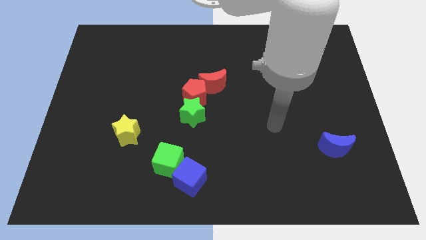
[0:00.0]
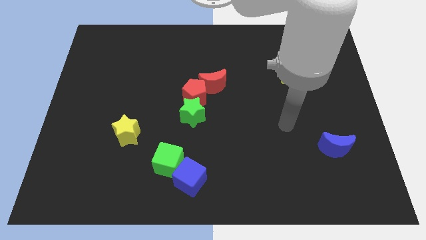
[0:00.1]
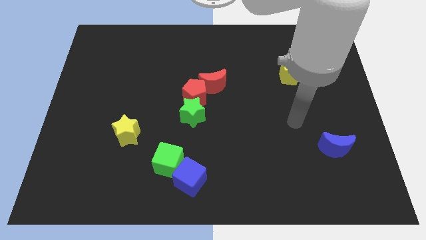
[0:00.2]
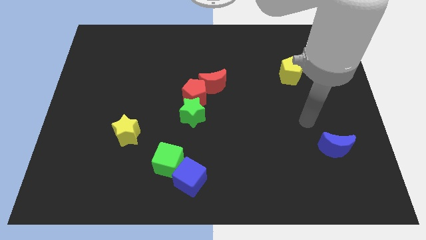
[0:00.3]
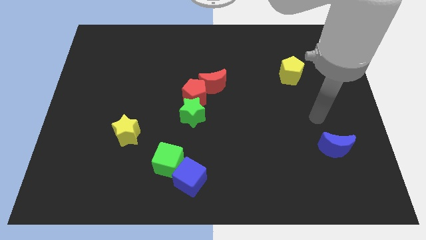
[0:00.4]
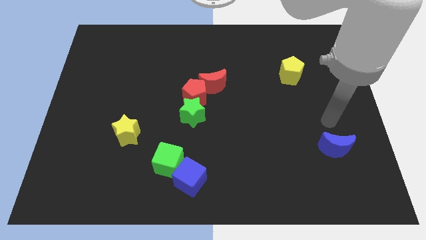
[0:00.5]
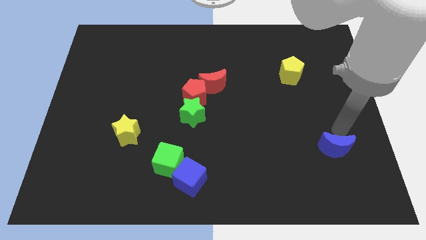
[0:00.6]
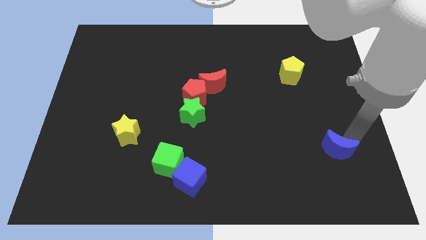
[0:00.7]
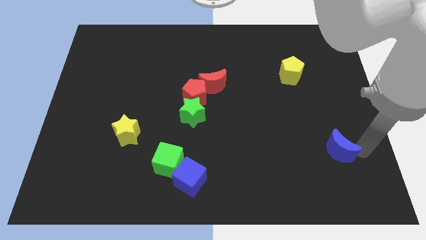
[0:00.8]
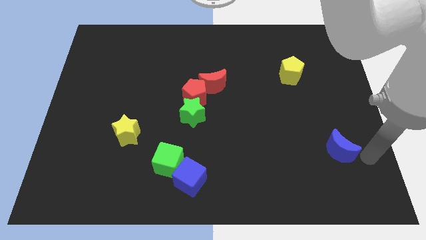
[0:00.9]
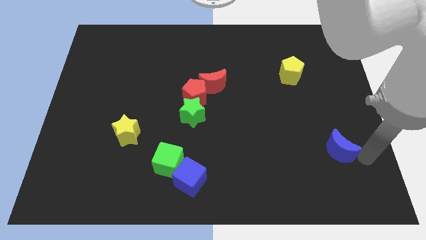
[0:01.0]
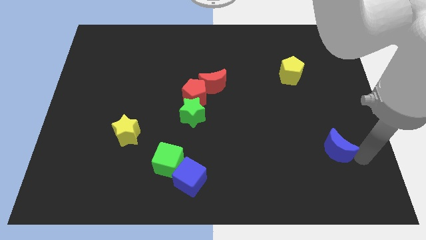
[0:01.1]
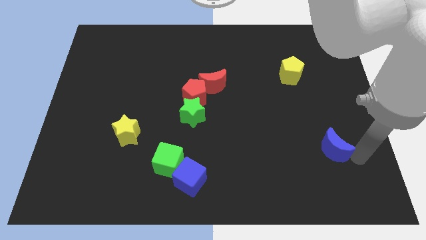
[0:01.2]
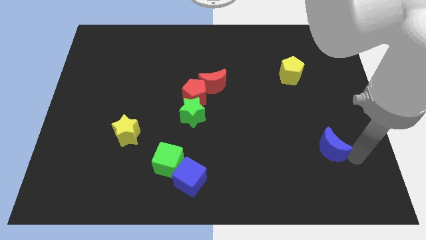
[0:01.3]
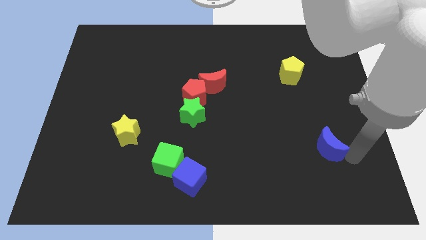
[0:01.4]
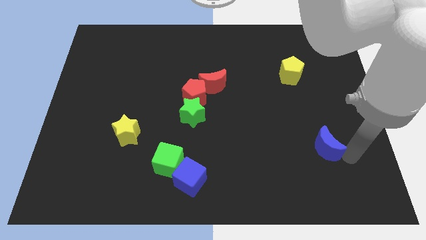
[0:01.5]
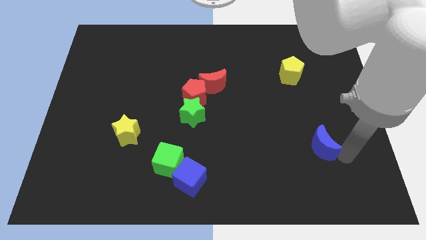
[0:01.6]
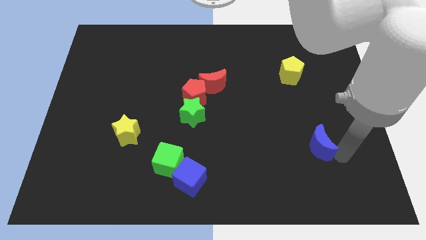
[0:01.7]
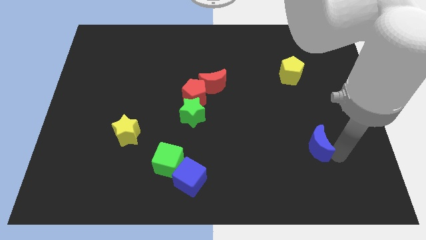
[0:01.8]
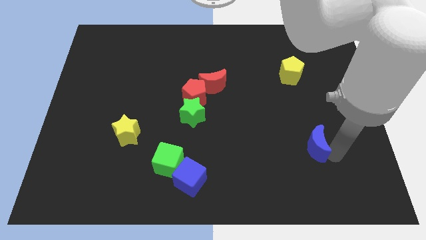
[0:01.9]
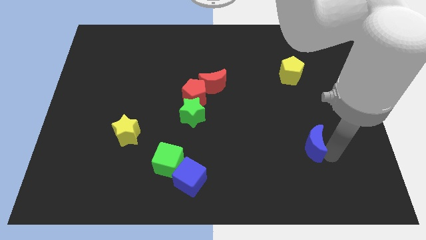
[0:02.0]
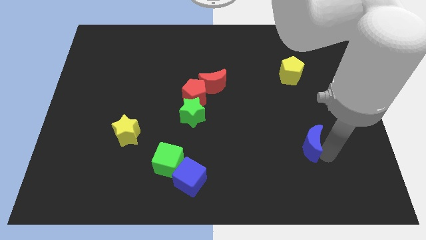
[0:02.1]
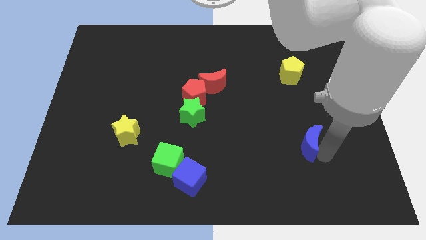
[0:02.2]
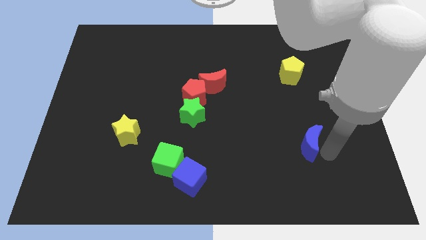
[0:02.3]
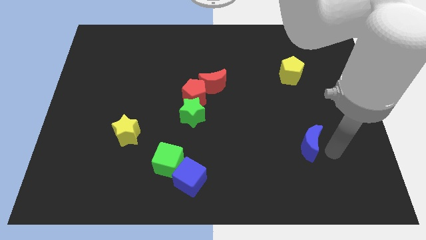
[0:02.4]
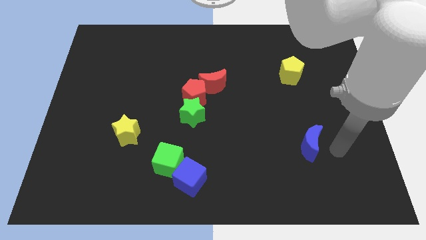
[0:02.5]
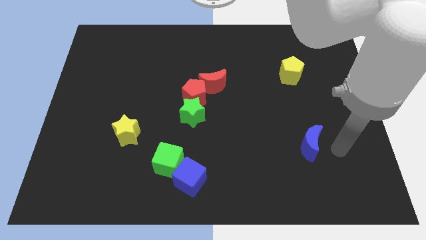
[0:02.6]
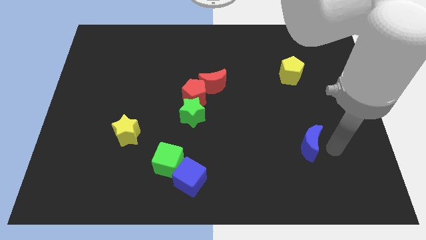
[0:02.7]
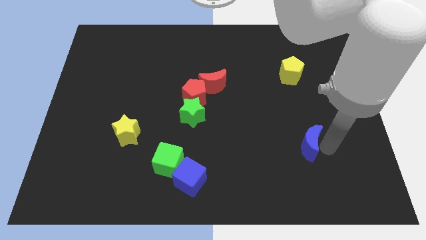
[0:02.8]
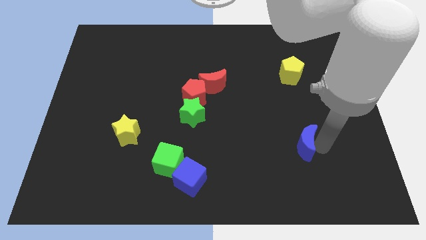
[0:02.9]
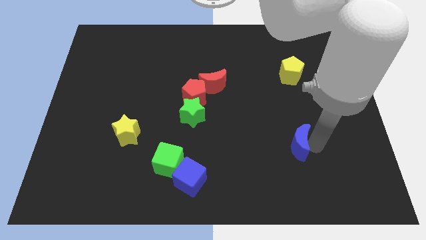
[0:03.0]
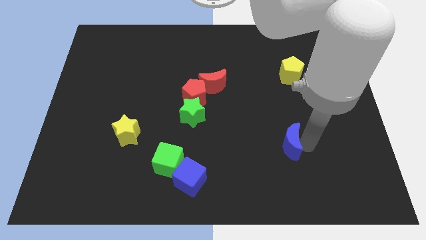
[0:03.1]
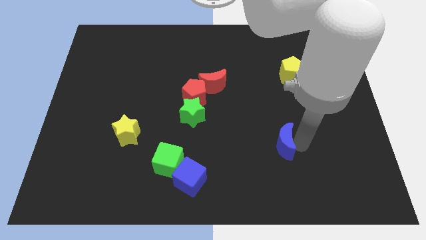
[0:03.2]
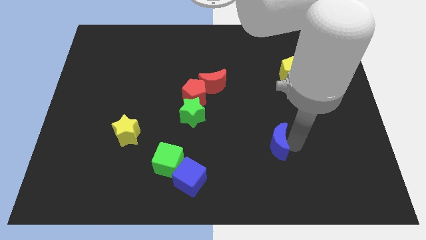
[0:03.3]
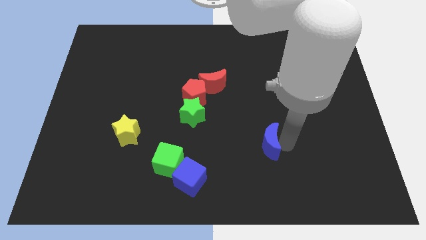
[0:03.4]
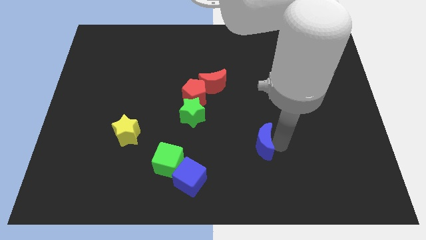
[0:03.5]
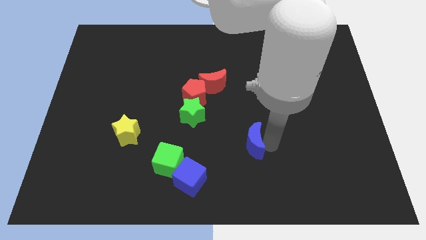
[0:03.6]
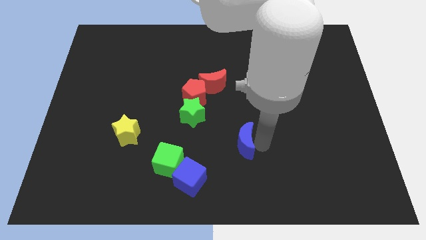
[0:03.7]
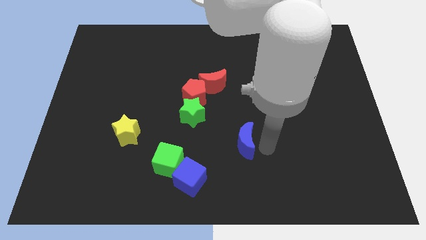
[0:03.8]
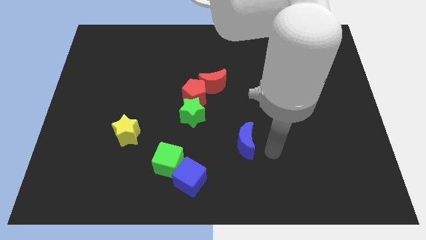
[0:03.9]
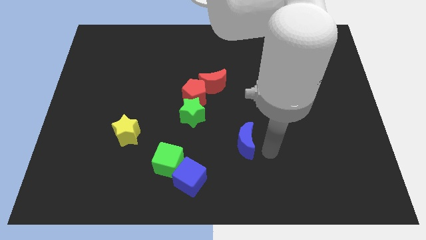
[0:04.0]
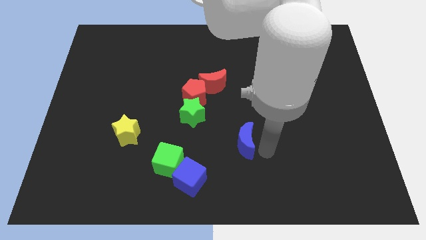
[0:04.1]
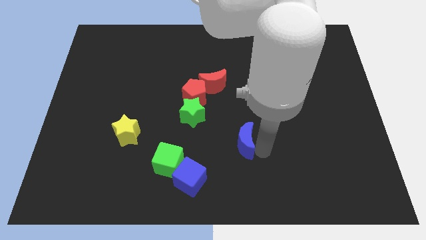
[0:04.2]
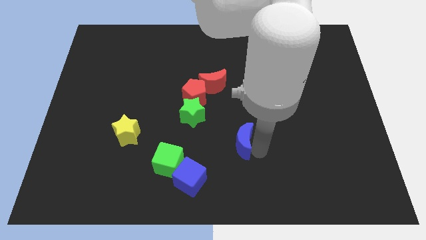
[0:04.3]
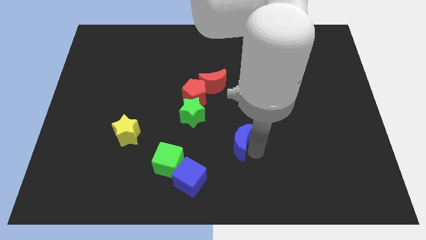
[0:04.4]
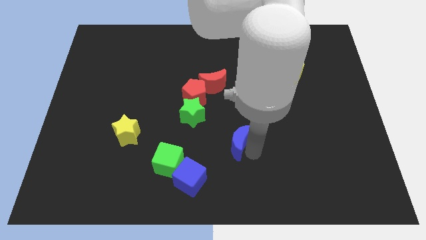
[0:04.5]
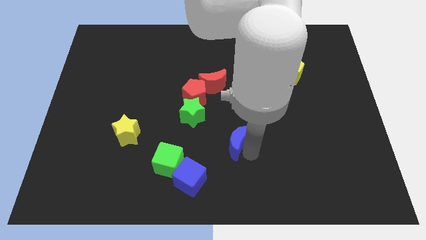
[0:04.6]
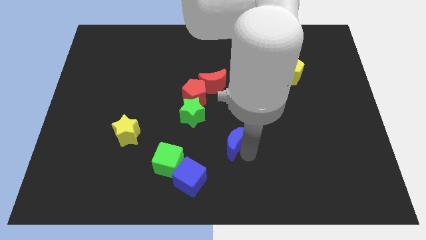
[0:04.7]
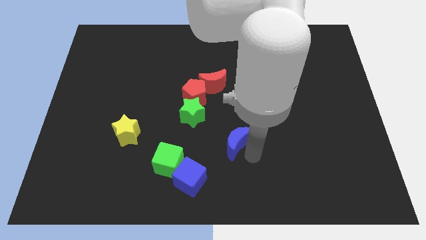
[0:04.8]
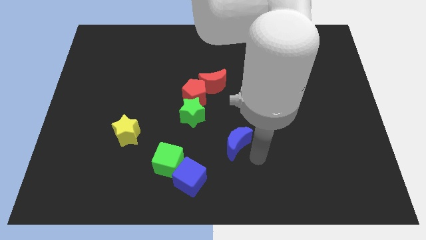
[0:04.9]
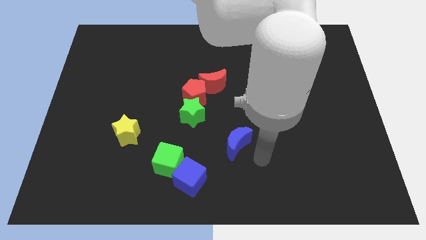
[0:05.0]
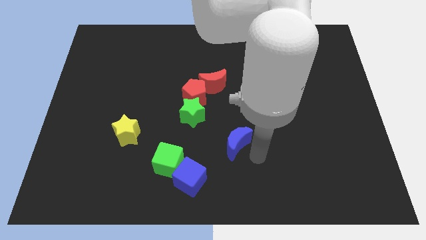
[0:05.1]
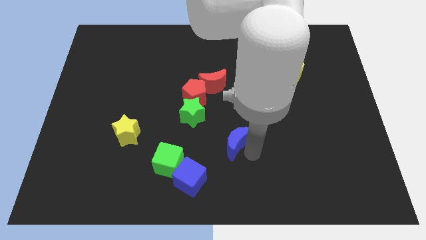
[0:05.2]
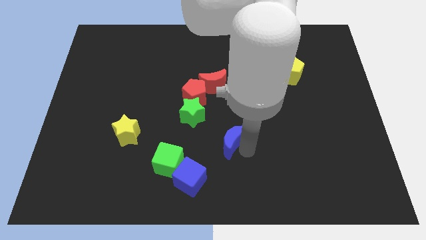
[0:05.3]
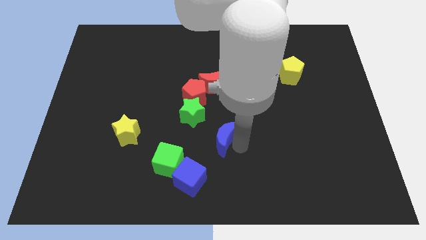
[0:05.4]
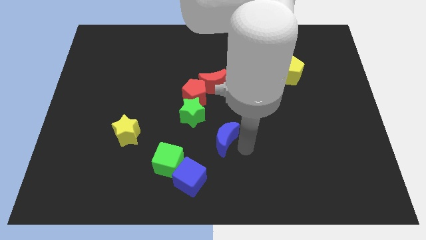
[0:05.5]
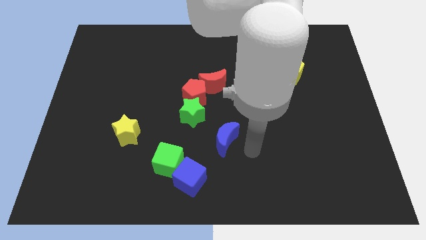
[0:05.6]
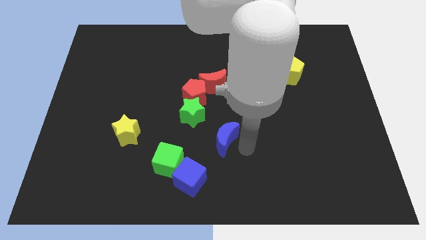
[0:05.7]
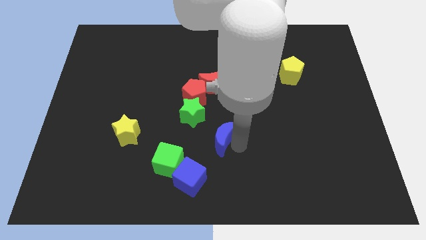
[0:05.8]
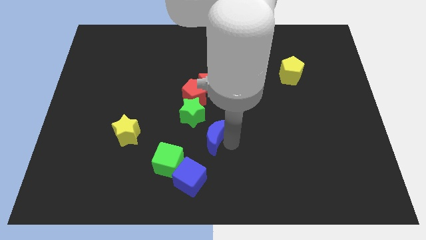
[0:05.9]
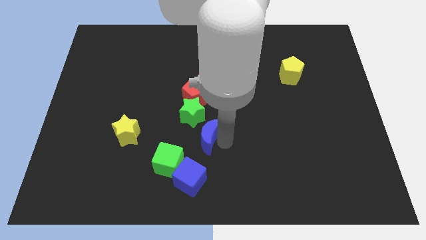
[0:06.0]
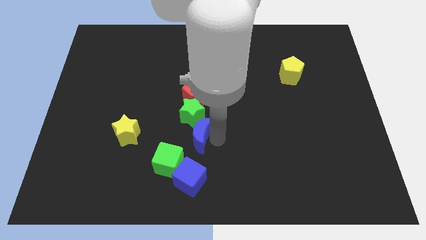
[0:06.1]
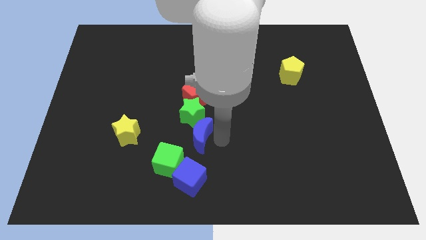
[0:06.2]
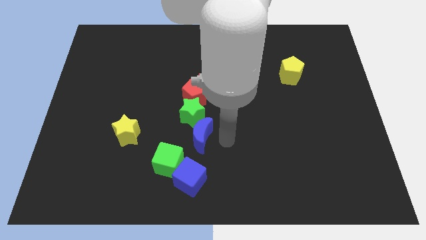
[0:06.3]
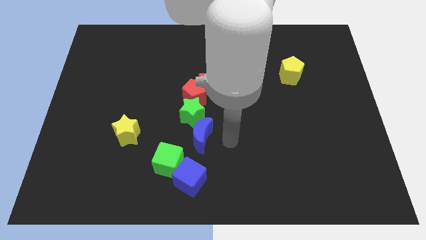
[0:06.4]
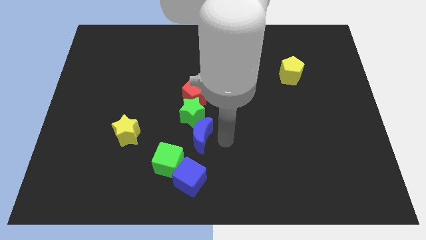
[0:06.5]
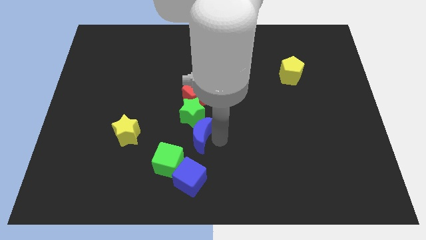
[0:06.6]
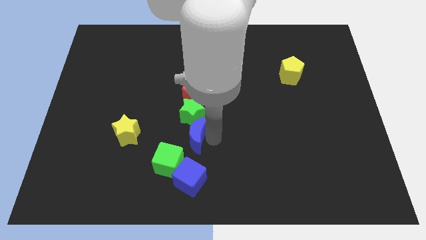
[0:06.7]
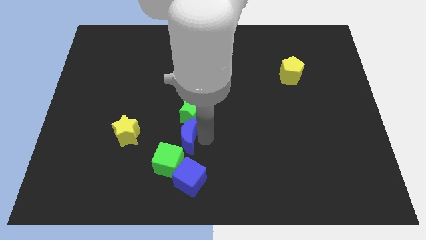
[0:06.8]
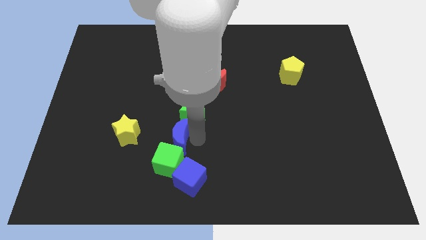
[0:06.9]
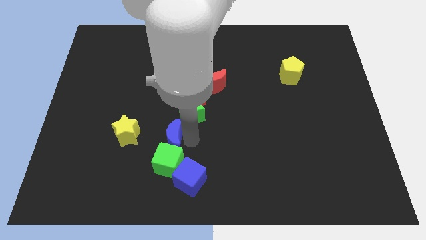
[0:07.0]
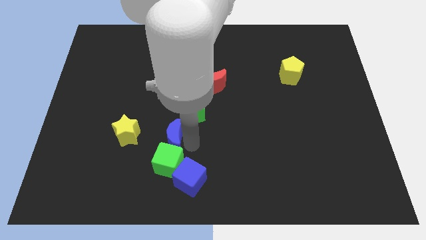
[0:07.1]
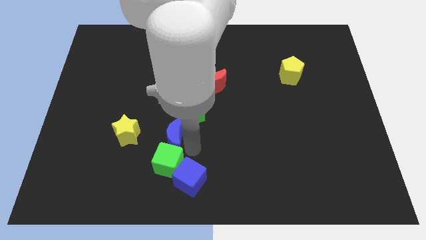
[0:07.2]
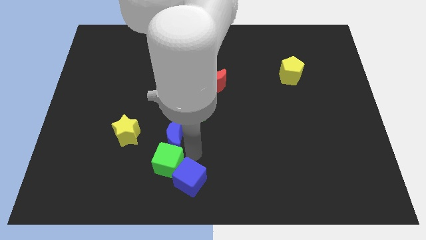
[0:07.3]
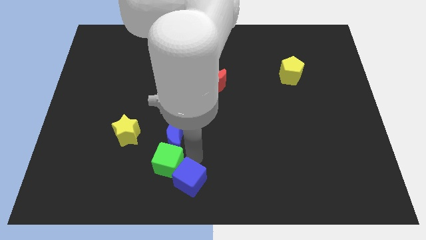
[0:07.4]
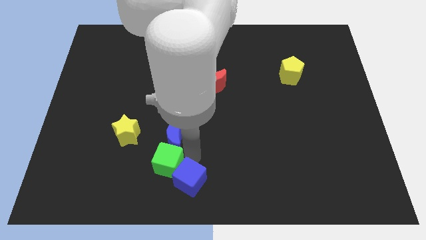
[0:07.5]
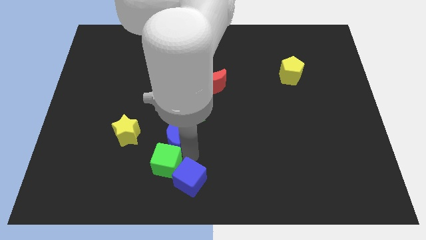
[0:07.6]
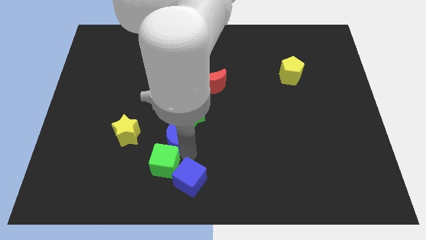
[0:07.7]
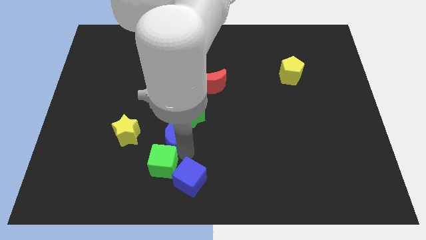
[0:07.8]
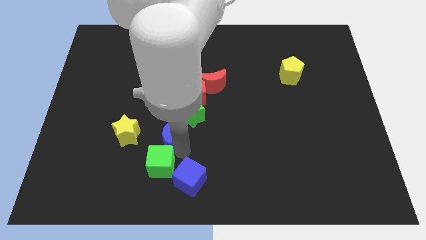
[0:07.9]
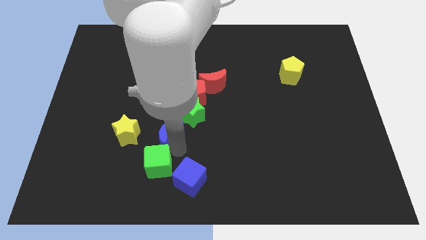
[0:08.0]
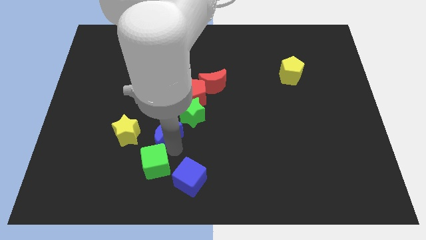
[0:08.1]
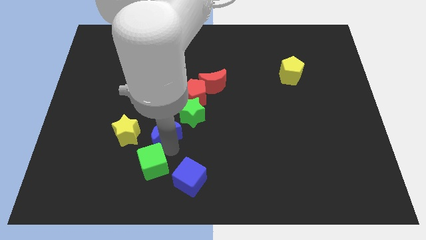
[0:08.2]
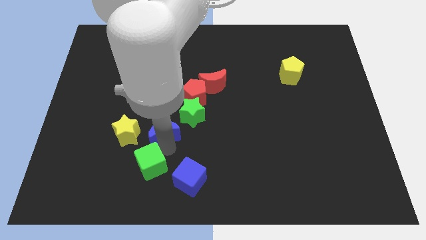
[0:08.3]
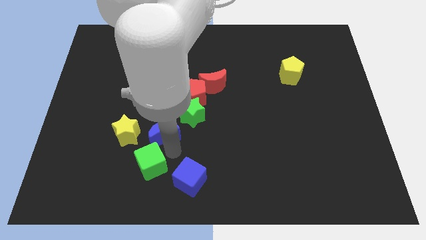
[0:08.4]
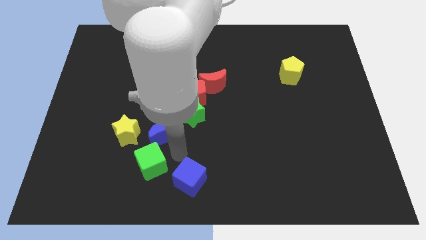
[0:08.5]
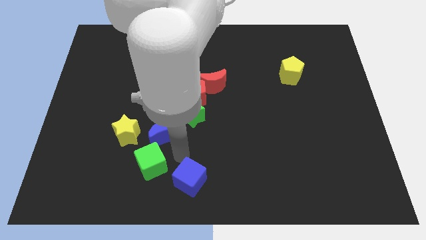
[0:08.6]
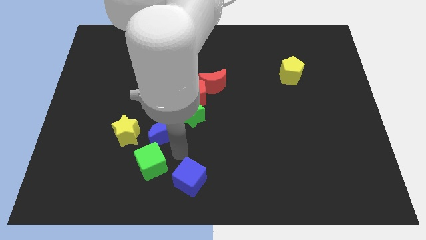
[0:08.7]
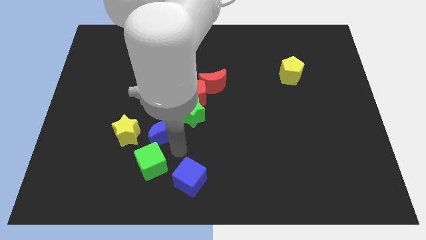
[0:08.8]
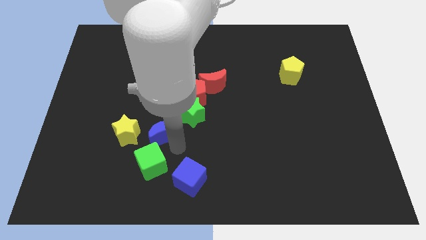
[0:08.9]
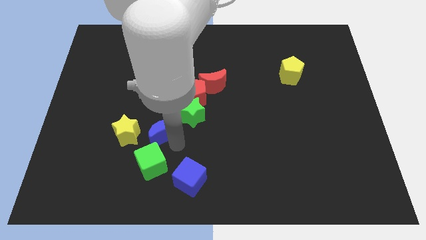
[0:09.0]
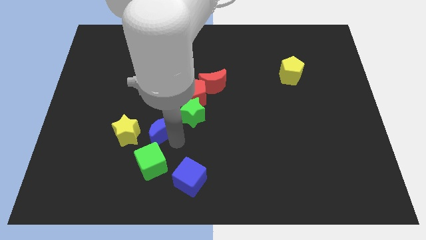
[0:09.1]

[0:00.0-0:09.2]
slide the blue moon to the left of the green star
